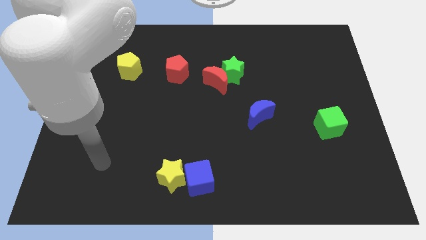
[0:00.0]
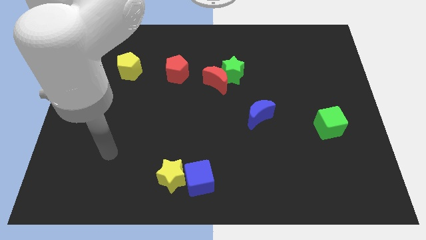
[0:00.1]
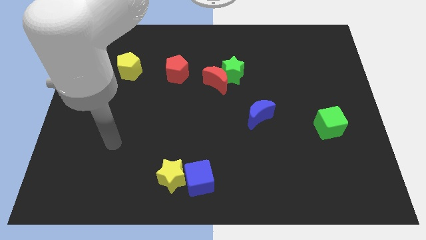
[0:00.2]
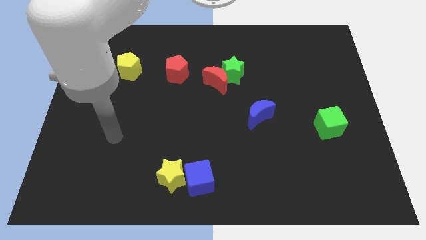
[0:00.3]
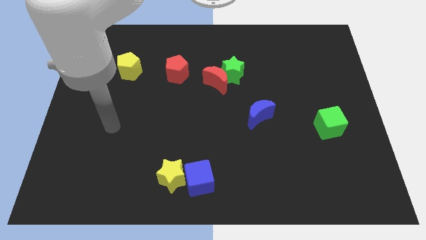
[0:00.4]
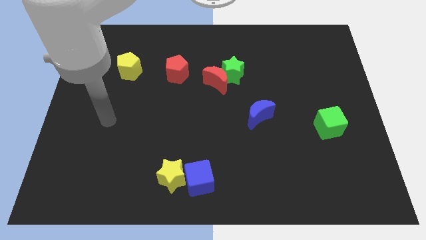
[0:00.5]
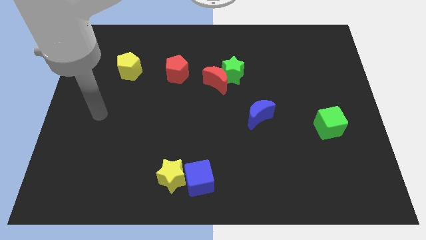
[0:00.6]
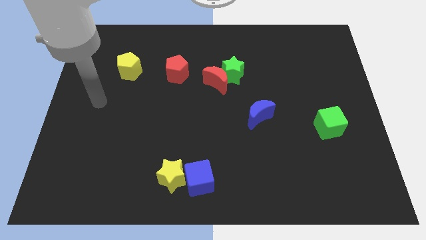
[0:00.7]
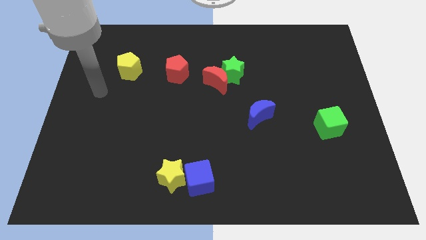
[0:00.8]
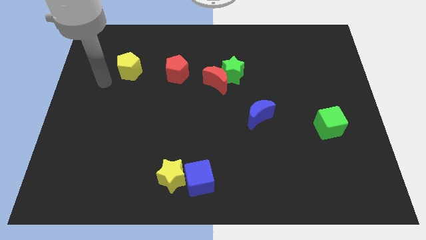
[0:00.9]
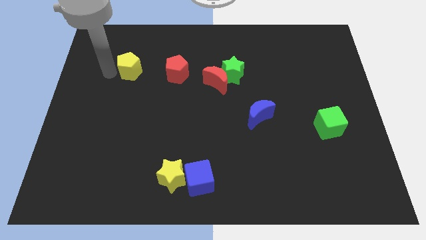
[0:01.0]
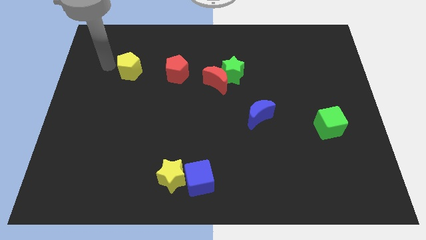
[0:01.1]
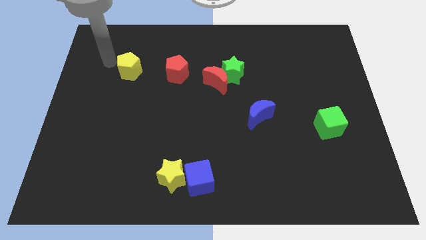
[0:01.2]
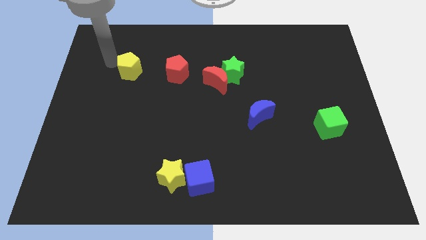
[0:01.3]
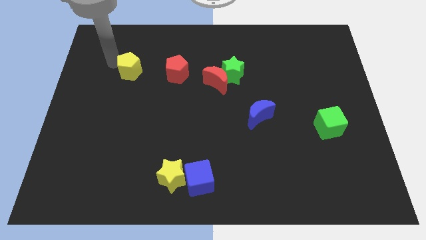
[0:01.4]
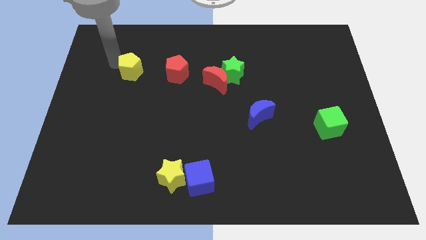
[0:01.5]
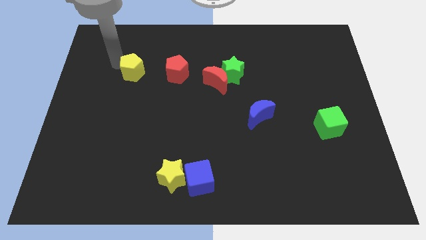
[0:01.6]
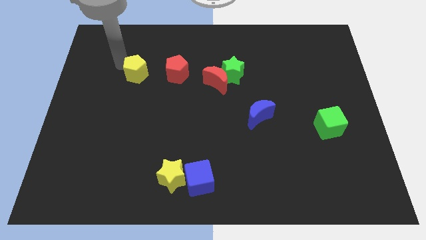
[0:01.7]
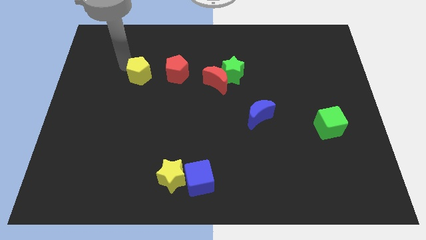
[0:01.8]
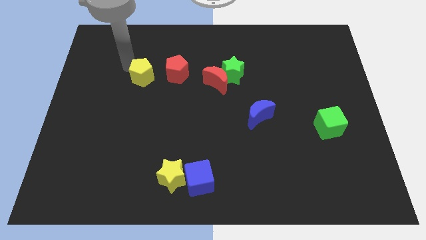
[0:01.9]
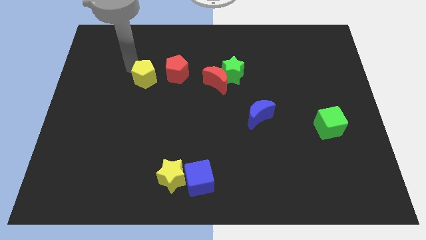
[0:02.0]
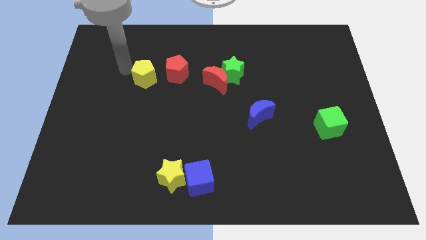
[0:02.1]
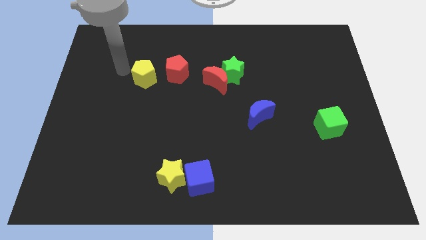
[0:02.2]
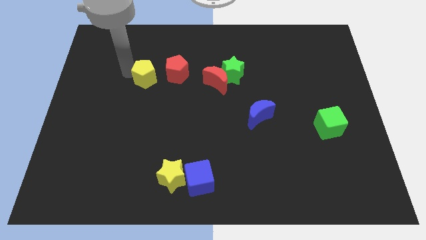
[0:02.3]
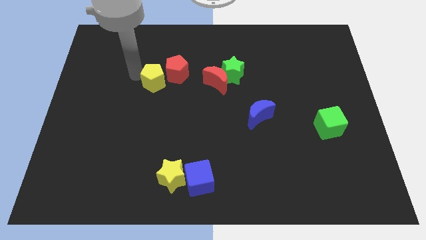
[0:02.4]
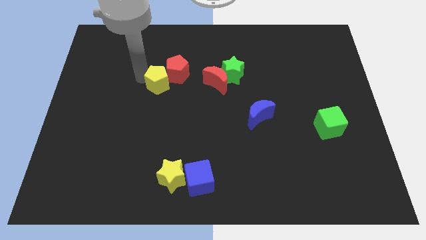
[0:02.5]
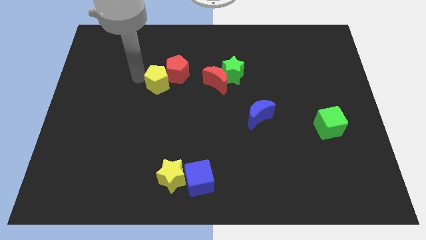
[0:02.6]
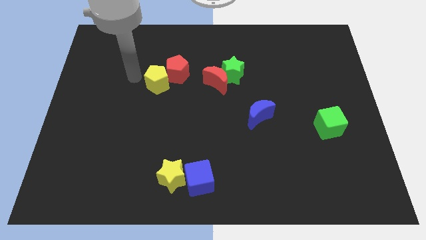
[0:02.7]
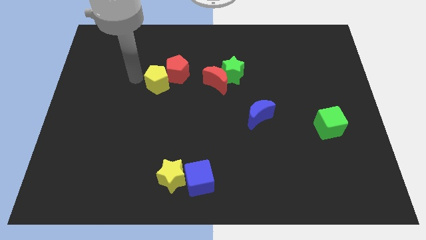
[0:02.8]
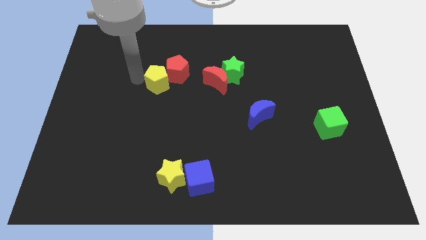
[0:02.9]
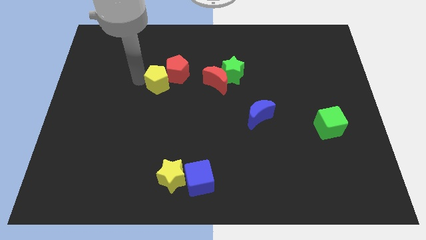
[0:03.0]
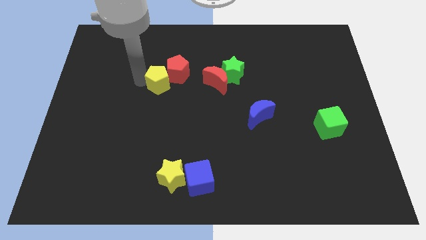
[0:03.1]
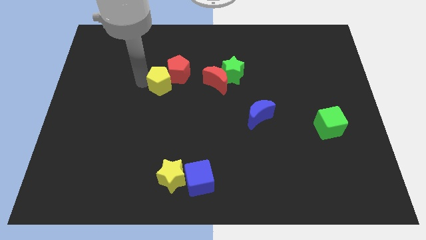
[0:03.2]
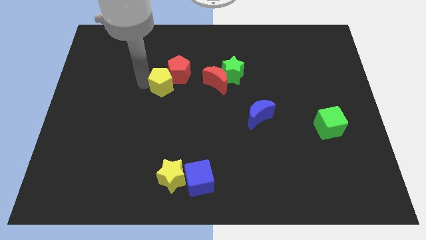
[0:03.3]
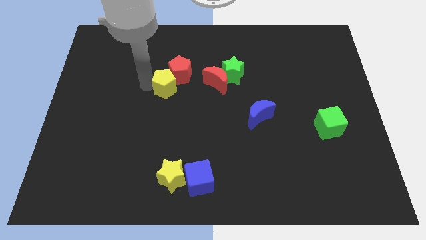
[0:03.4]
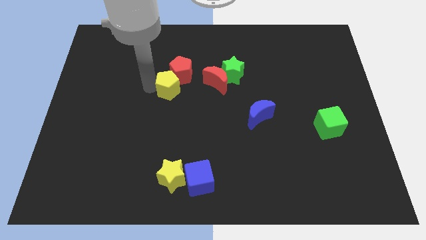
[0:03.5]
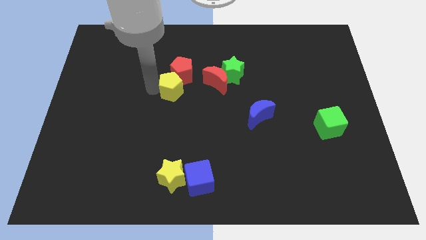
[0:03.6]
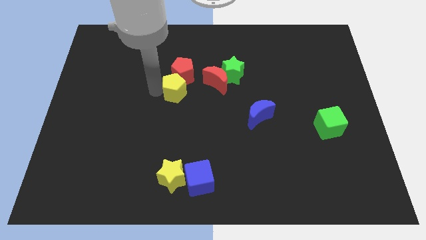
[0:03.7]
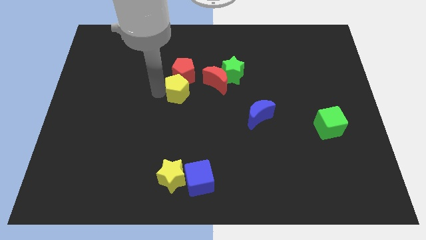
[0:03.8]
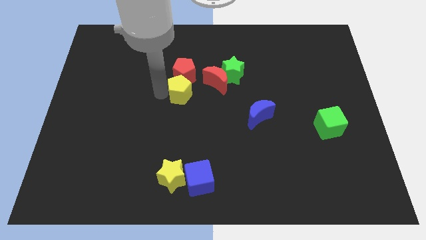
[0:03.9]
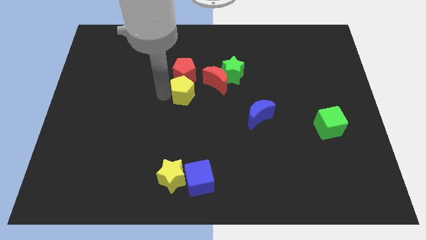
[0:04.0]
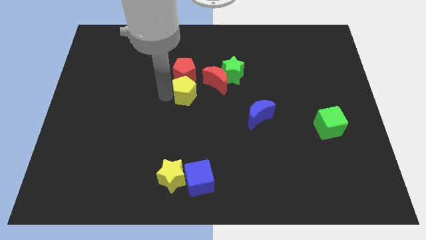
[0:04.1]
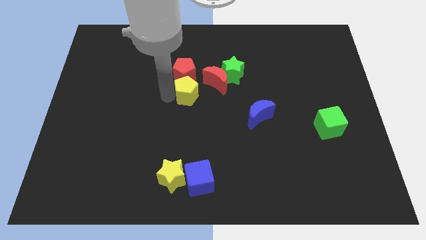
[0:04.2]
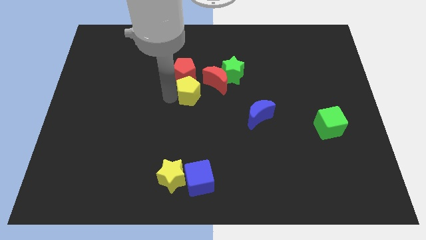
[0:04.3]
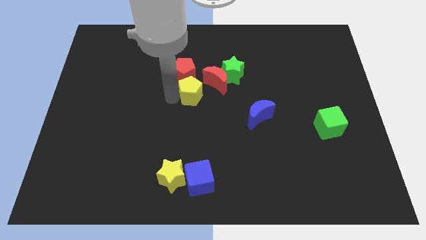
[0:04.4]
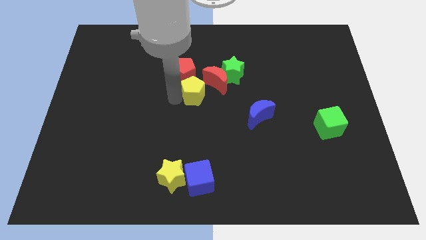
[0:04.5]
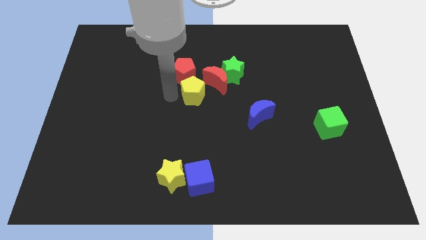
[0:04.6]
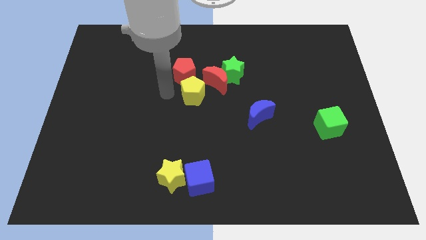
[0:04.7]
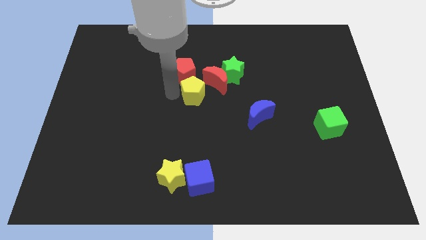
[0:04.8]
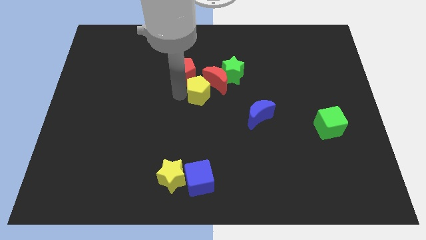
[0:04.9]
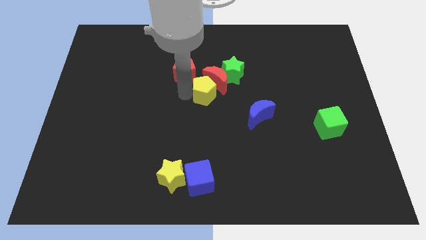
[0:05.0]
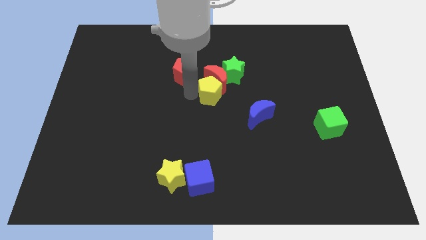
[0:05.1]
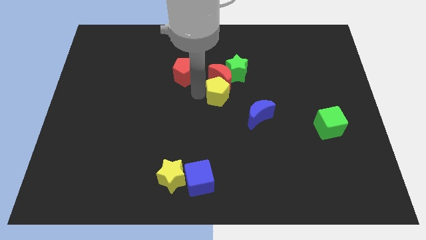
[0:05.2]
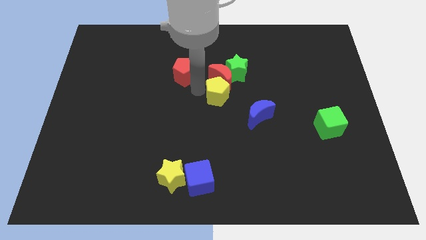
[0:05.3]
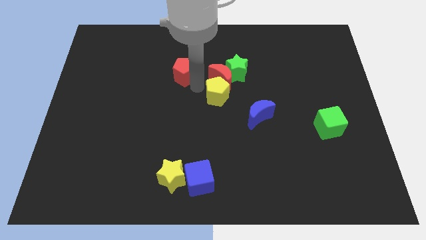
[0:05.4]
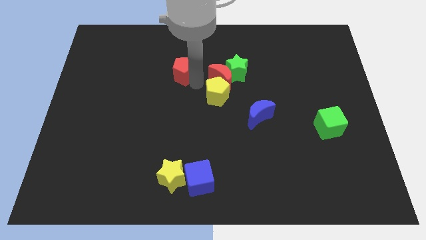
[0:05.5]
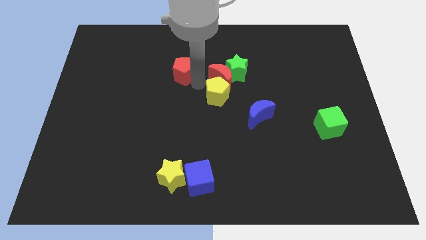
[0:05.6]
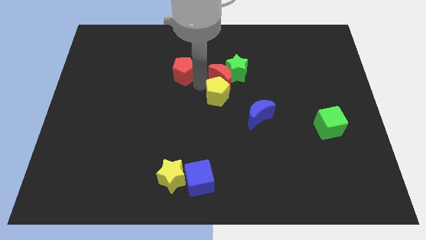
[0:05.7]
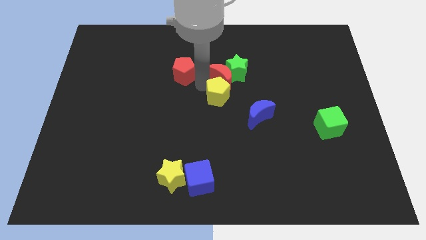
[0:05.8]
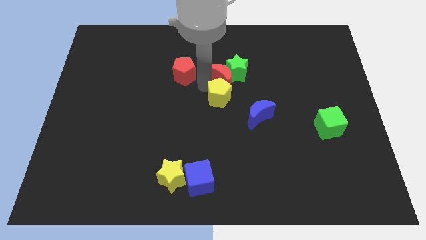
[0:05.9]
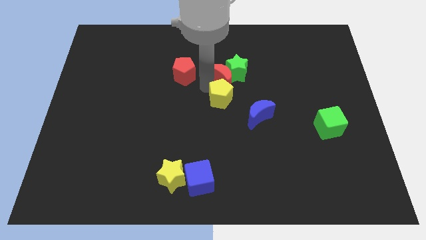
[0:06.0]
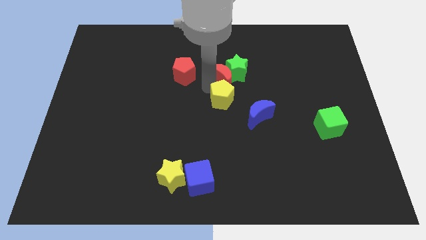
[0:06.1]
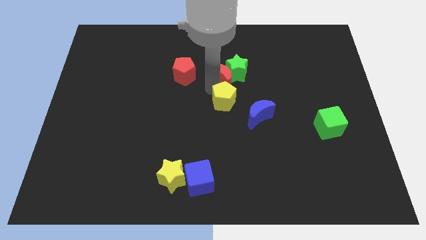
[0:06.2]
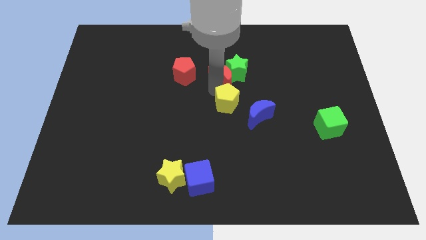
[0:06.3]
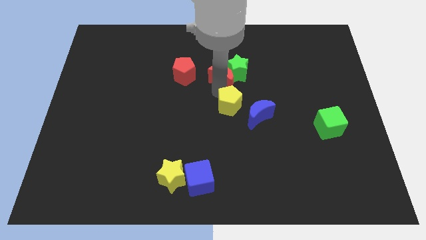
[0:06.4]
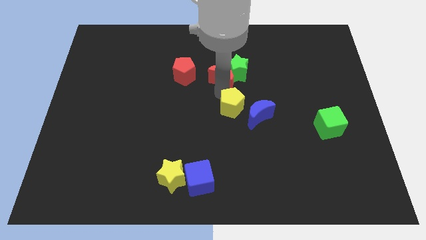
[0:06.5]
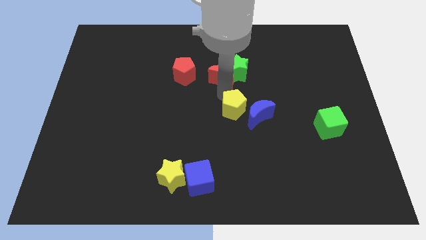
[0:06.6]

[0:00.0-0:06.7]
move the yellow pentagon towards the blue moon

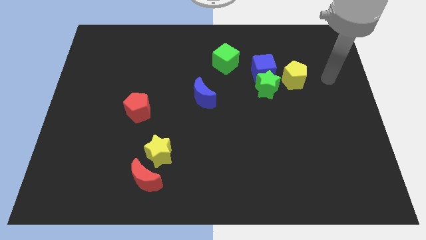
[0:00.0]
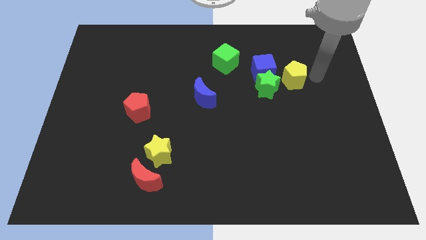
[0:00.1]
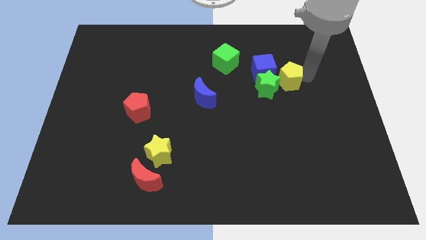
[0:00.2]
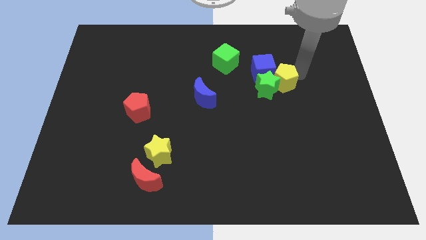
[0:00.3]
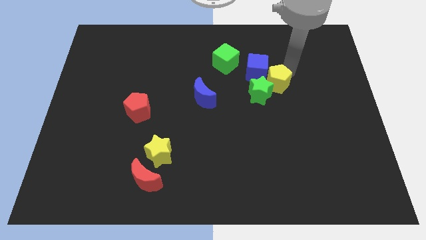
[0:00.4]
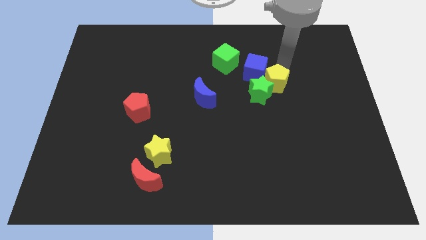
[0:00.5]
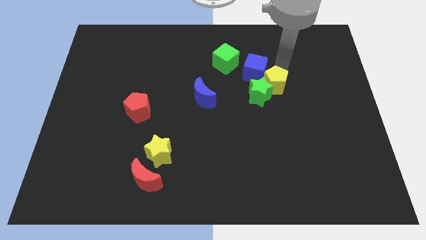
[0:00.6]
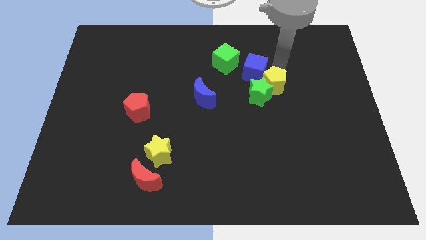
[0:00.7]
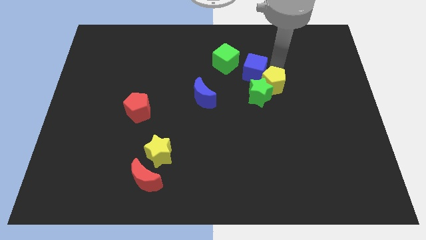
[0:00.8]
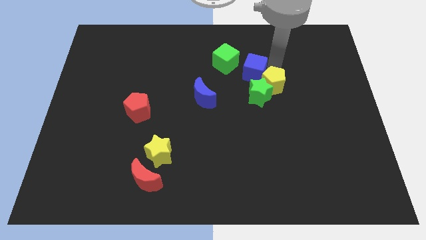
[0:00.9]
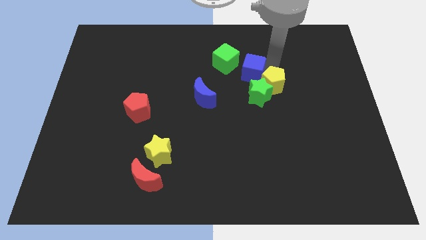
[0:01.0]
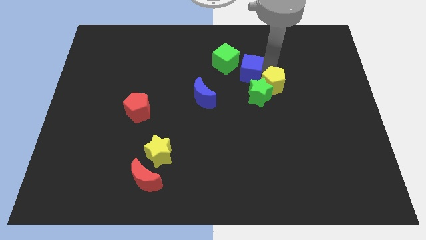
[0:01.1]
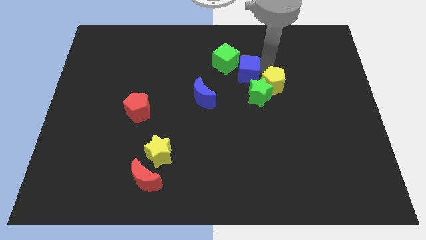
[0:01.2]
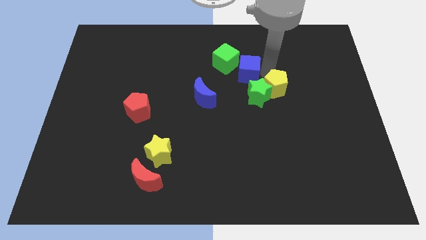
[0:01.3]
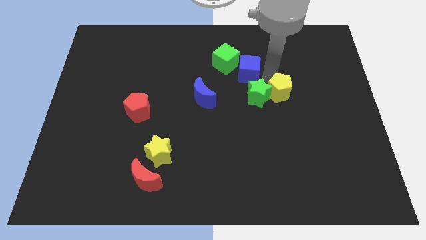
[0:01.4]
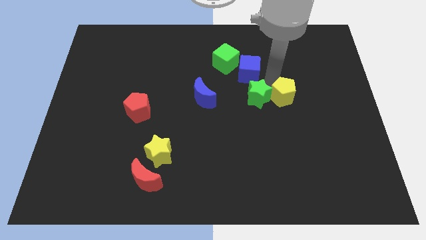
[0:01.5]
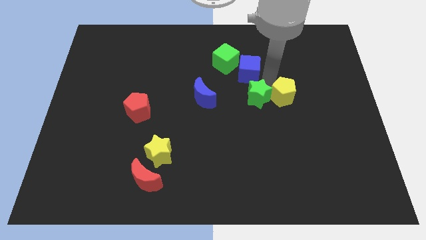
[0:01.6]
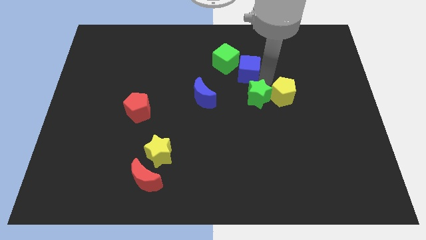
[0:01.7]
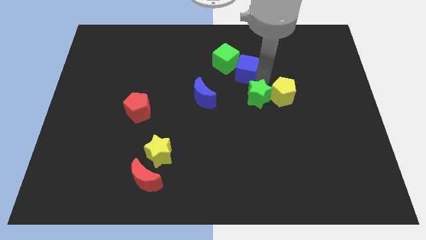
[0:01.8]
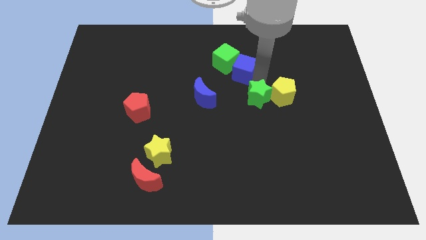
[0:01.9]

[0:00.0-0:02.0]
put the blue cube next to the green cube
